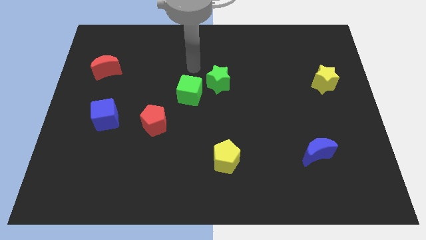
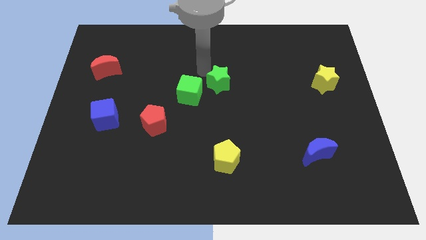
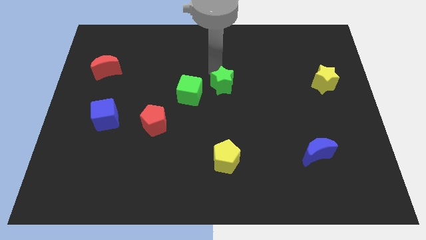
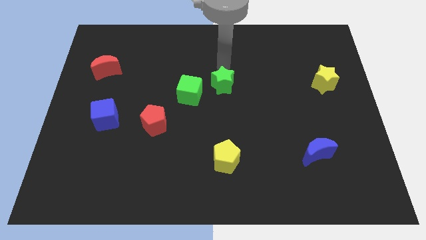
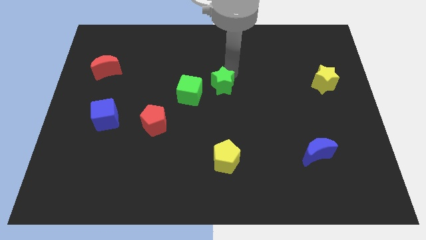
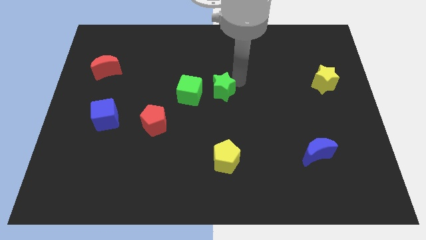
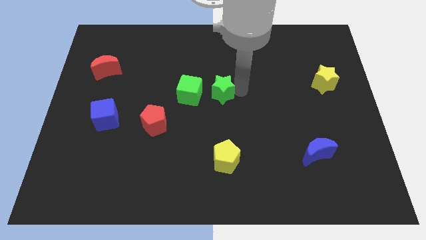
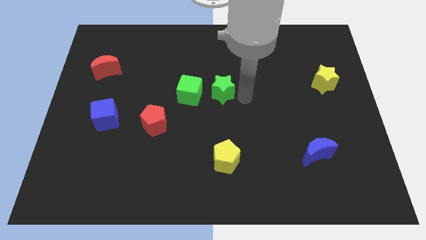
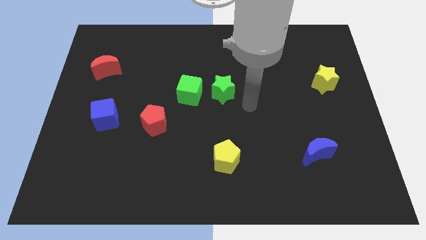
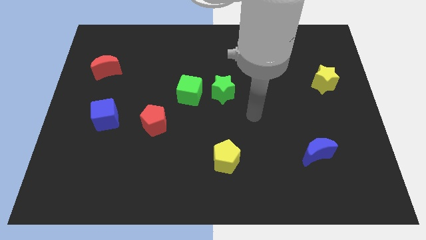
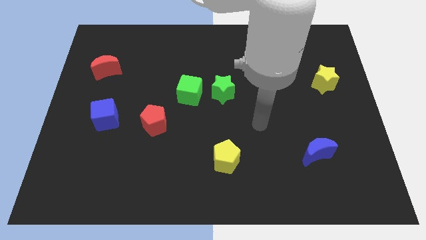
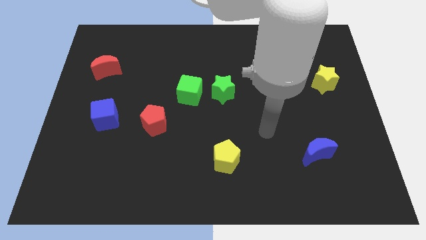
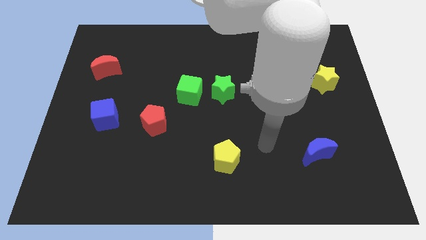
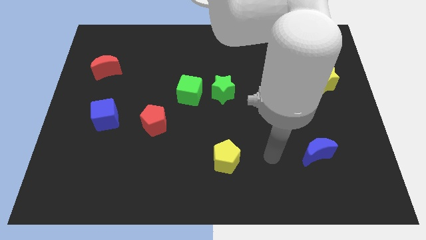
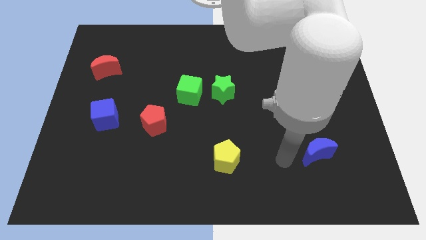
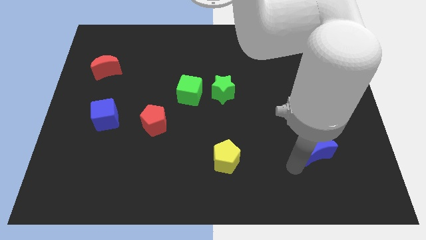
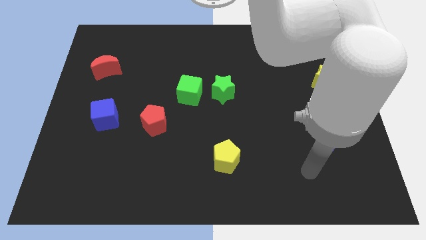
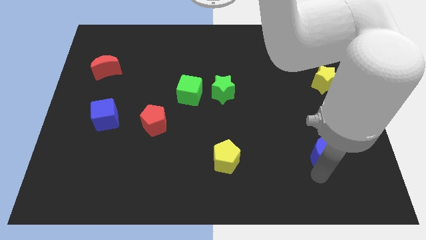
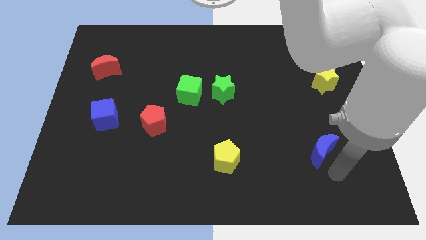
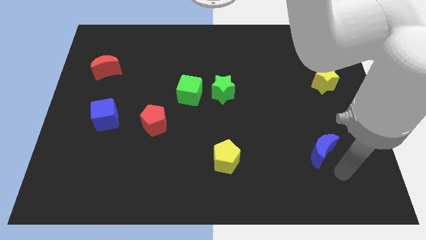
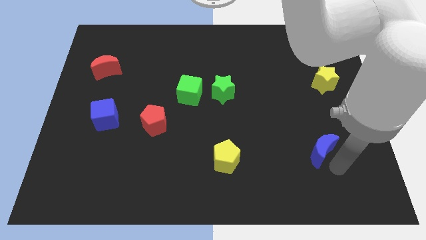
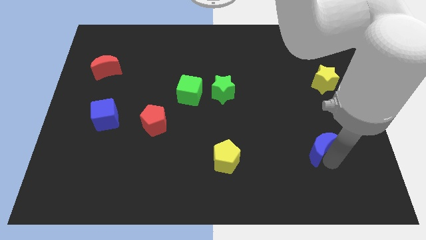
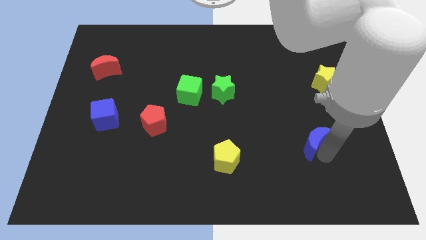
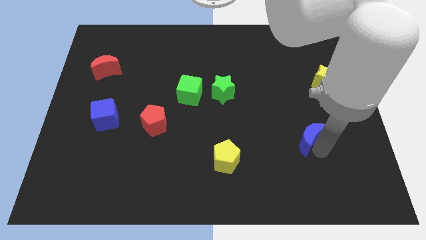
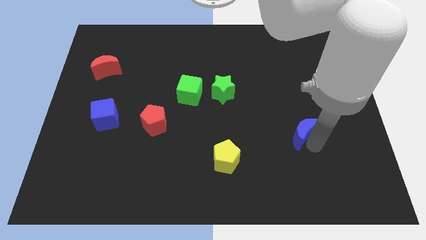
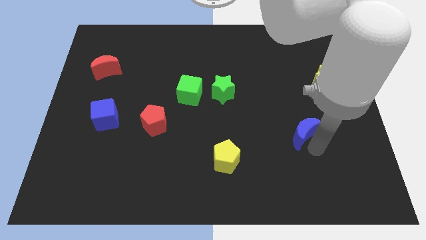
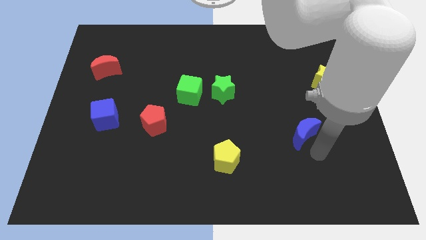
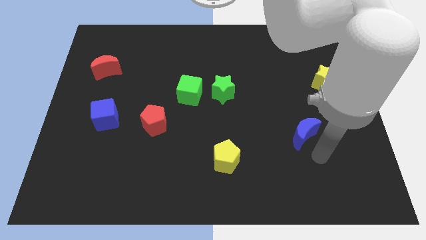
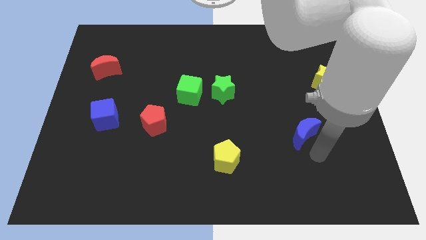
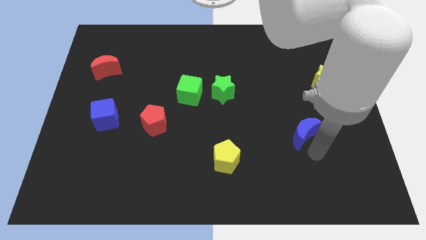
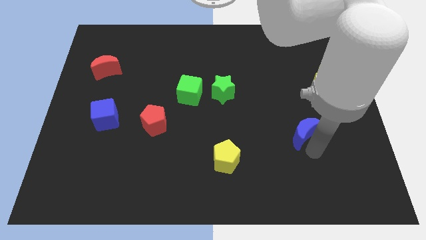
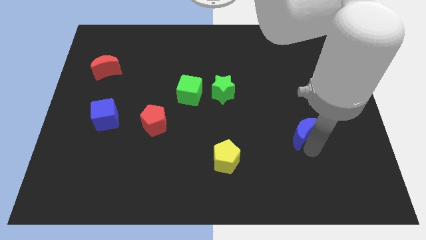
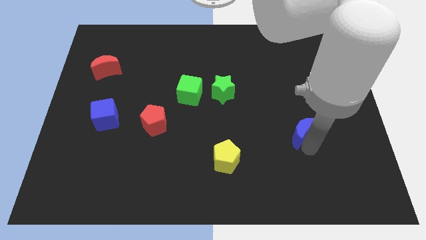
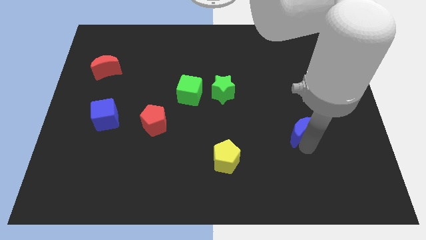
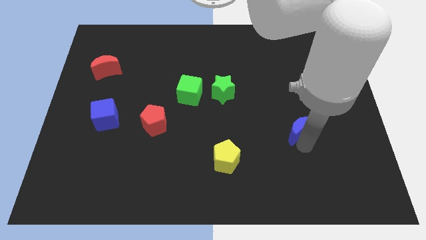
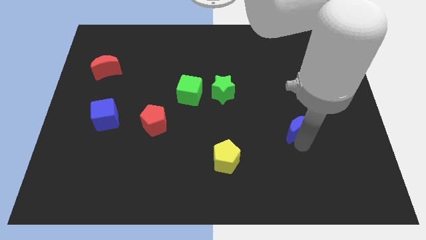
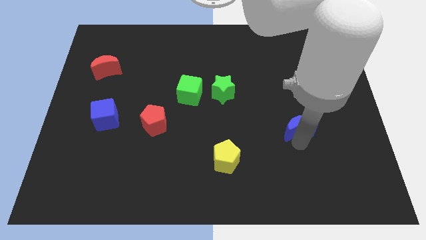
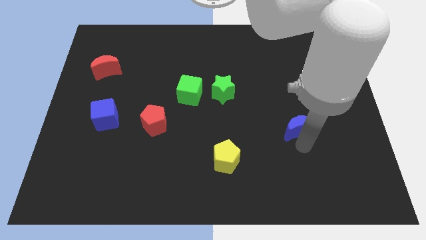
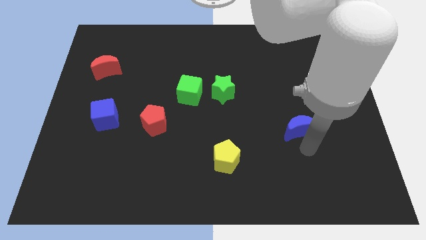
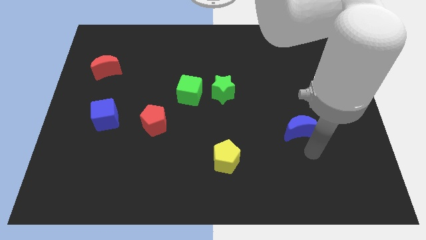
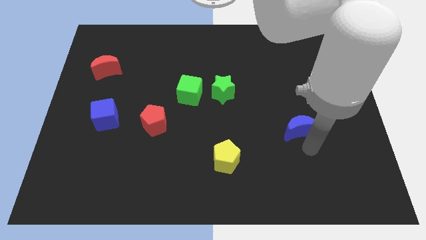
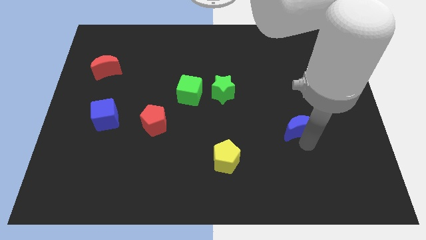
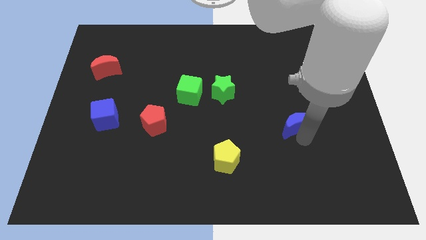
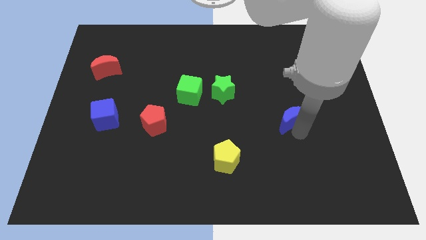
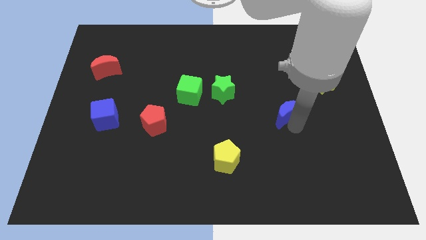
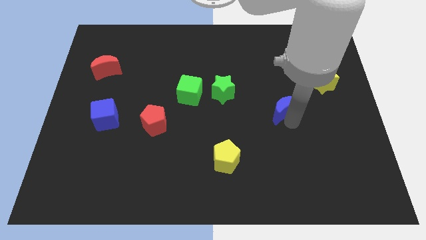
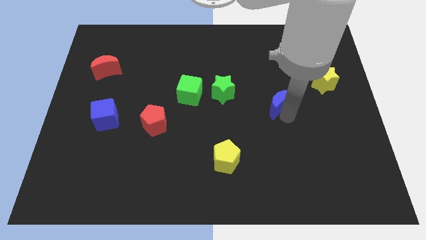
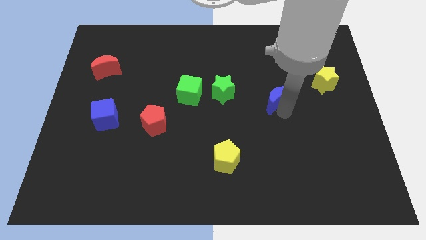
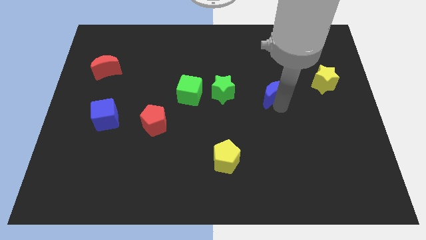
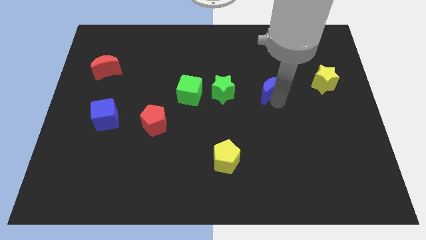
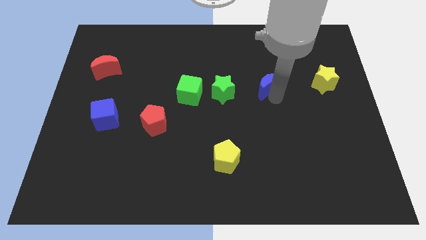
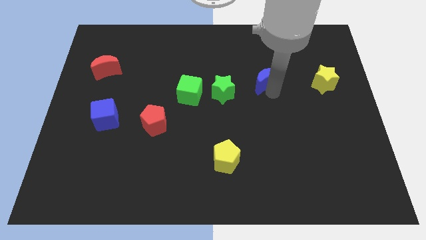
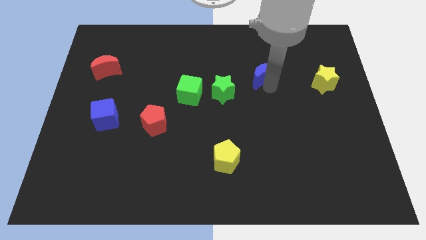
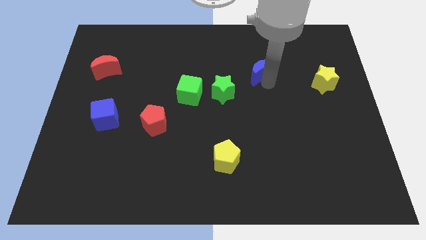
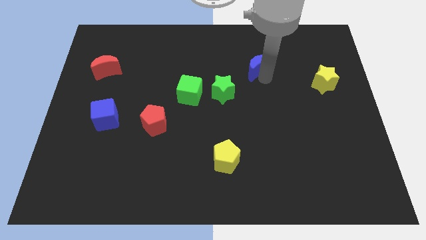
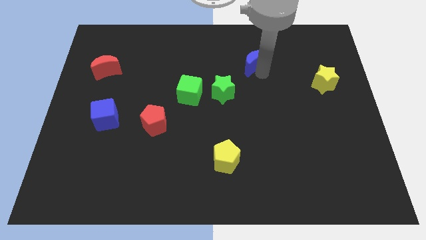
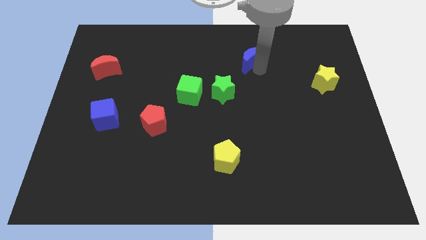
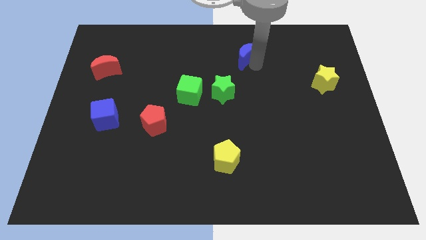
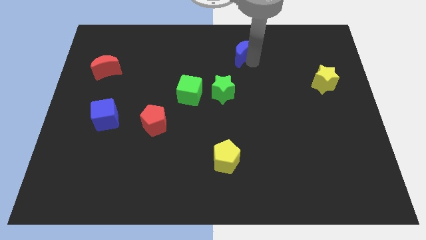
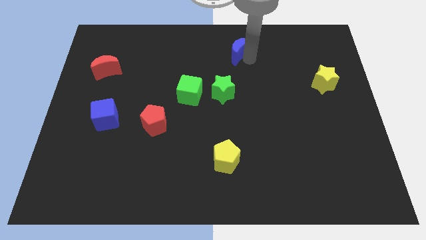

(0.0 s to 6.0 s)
move the blue moon to the top

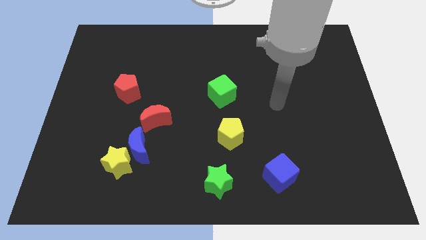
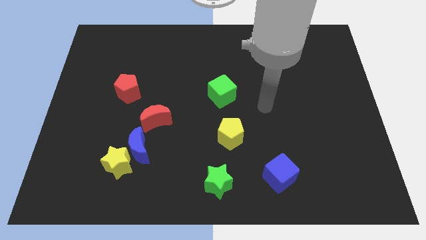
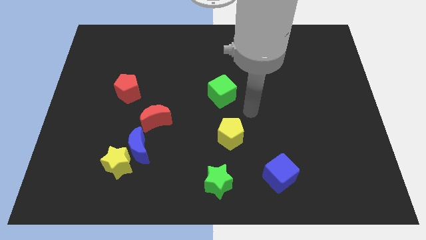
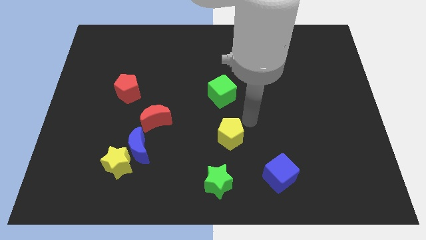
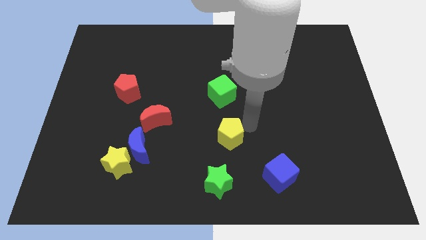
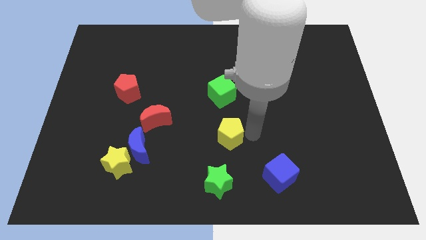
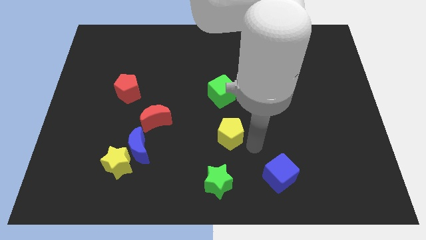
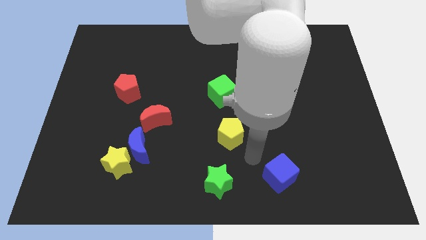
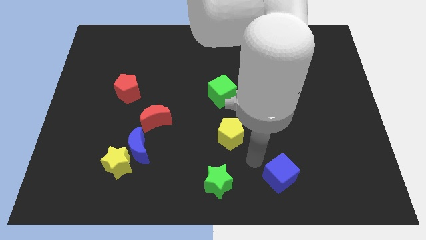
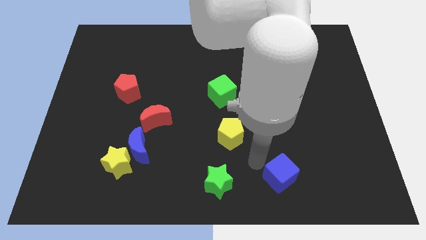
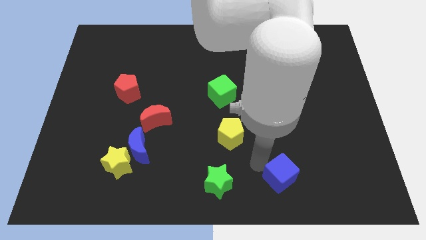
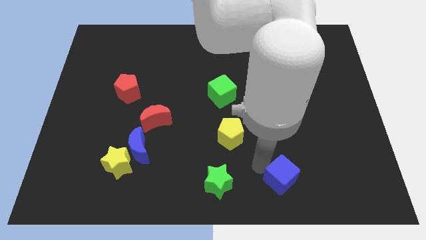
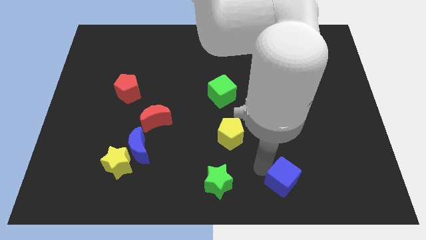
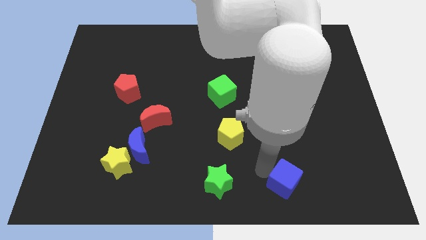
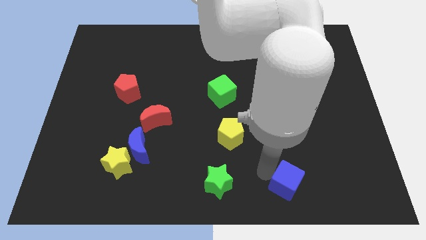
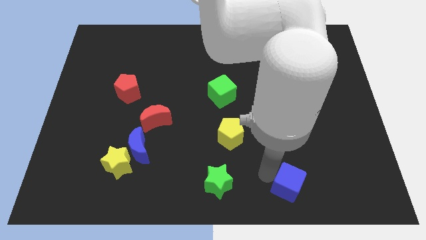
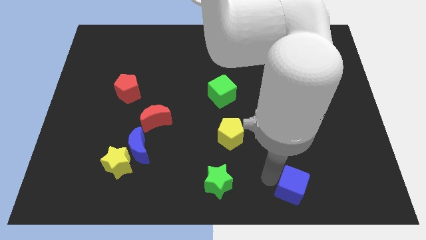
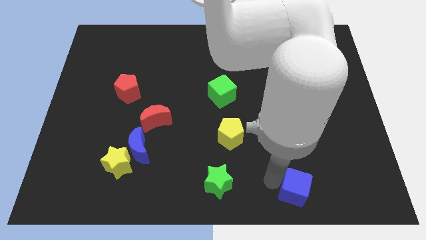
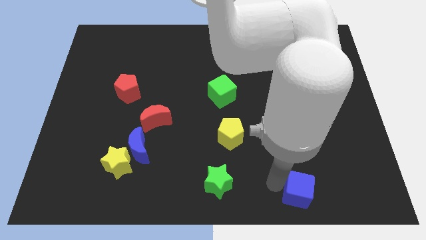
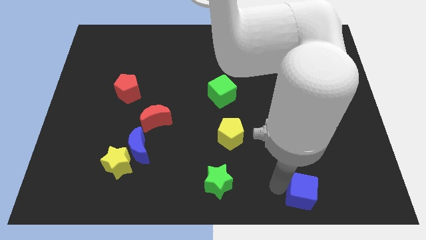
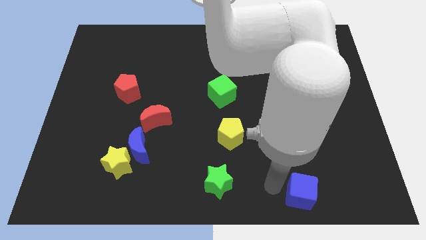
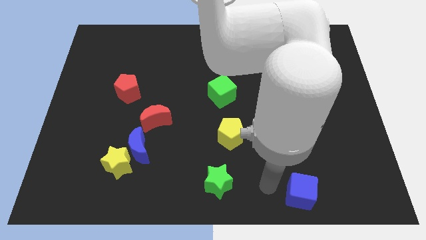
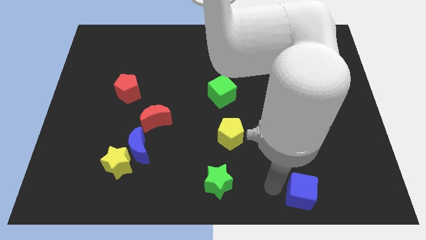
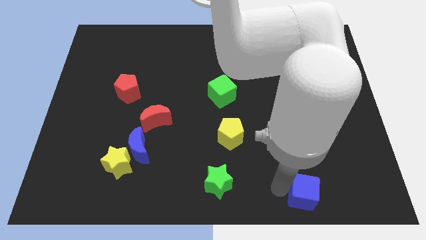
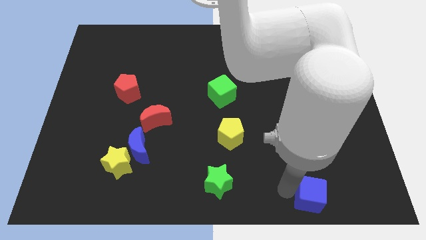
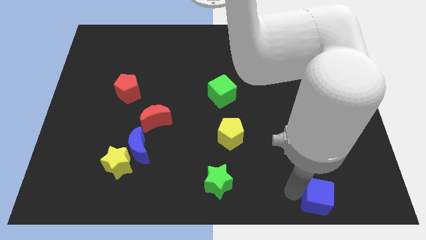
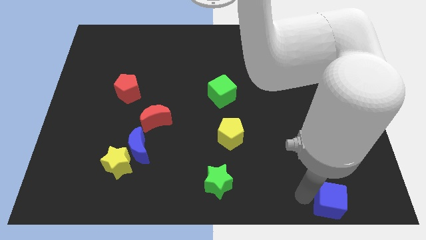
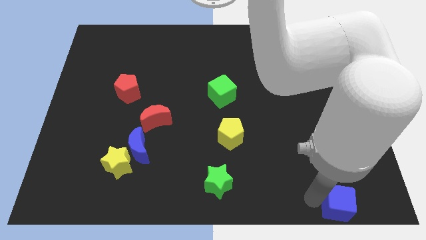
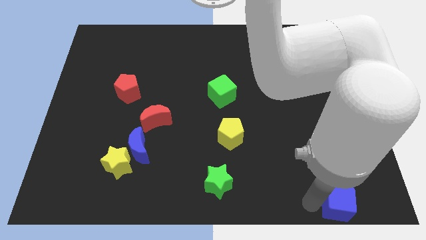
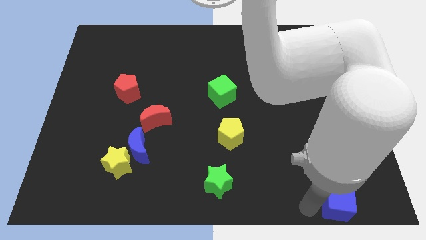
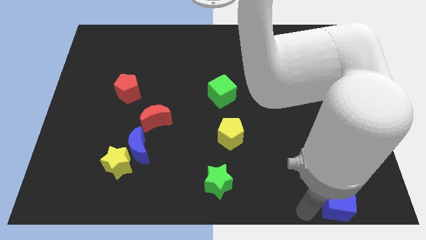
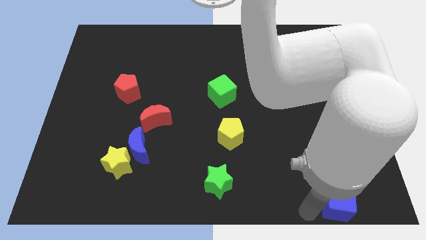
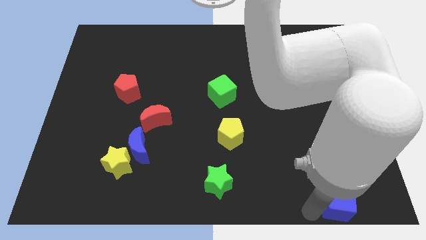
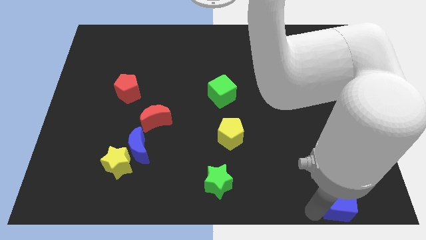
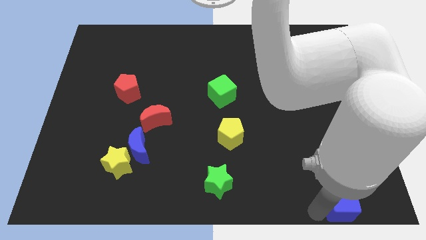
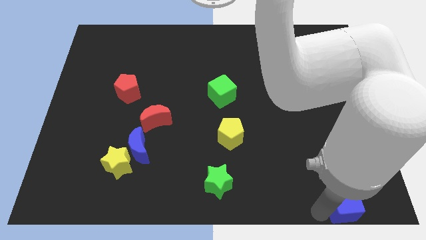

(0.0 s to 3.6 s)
move the blue cube to the lower right corner
